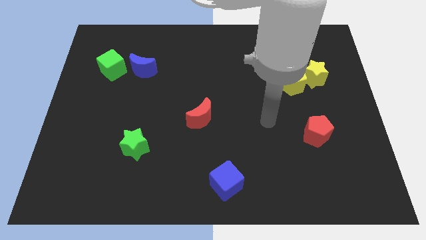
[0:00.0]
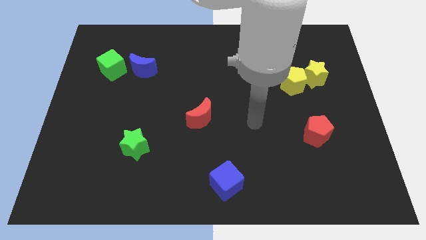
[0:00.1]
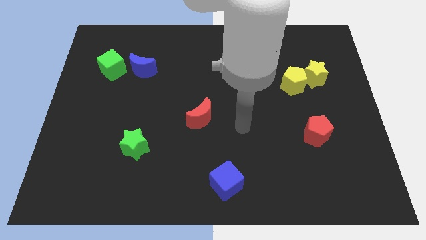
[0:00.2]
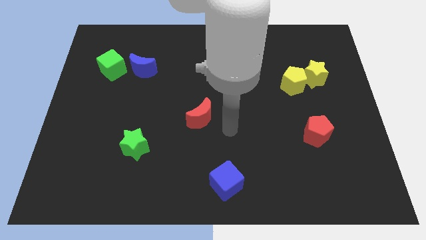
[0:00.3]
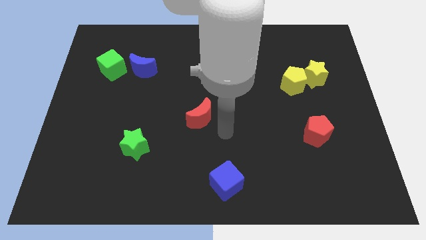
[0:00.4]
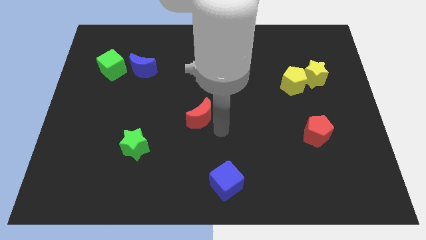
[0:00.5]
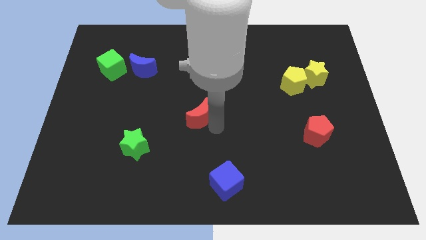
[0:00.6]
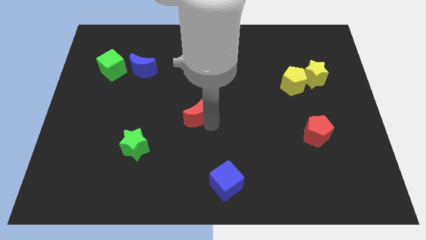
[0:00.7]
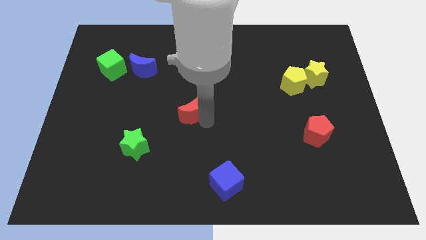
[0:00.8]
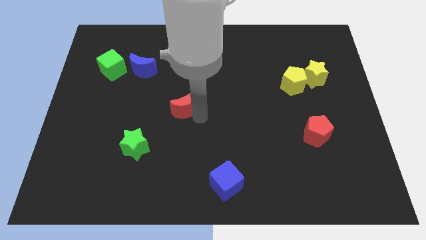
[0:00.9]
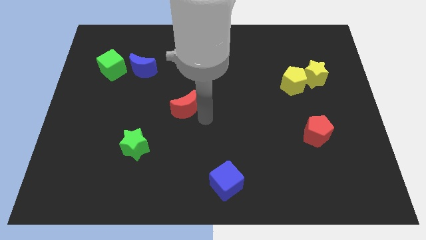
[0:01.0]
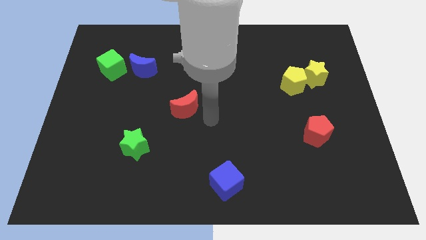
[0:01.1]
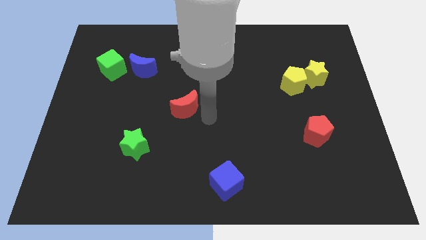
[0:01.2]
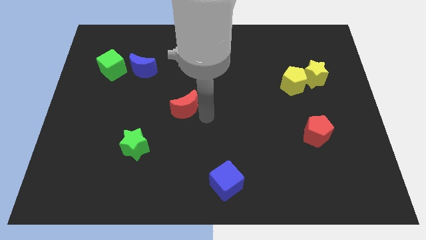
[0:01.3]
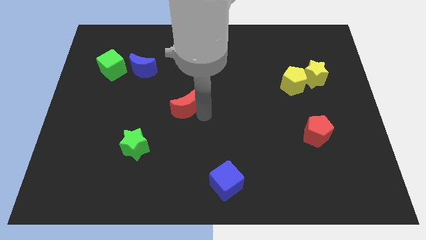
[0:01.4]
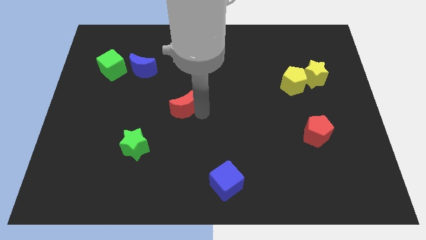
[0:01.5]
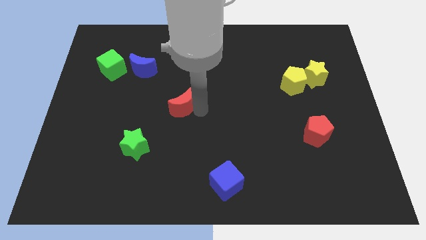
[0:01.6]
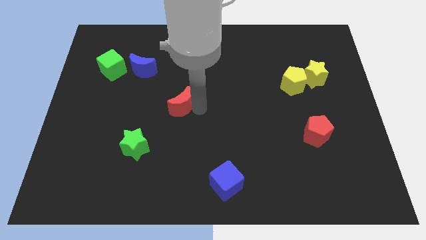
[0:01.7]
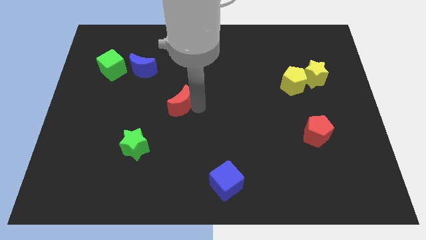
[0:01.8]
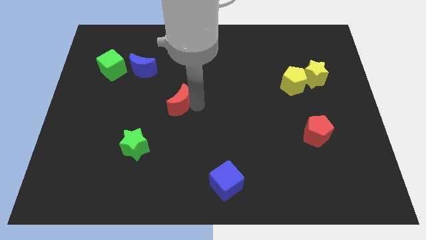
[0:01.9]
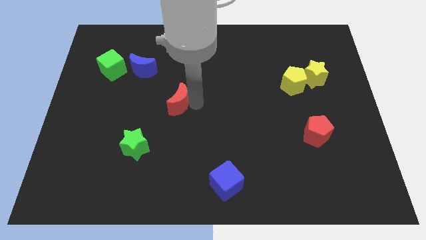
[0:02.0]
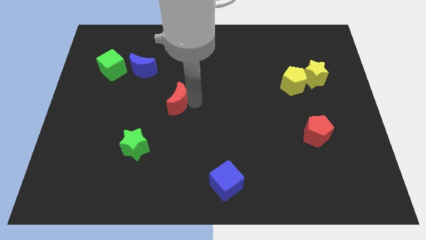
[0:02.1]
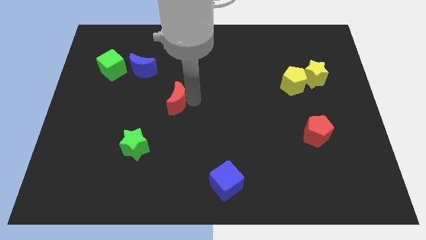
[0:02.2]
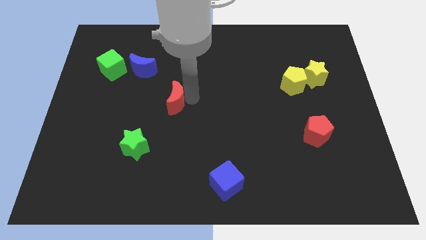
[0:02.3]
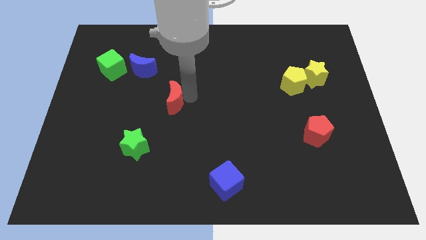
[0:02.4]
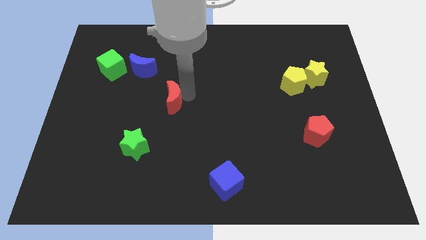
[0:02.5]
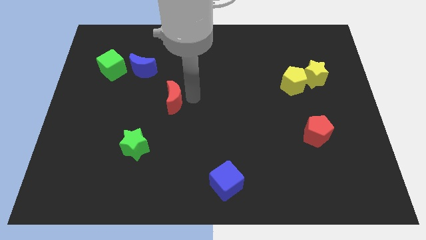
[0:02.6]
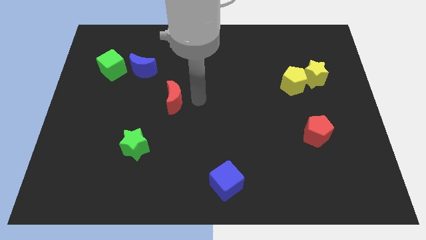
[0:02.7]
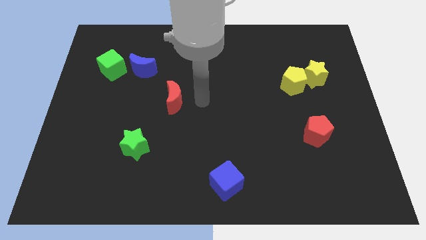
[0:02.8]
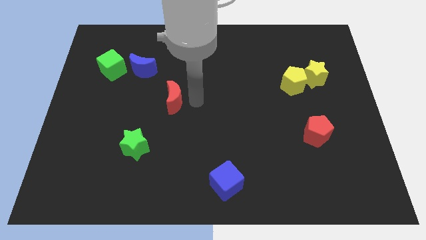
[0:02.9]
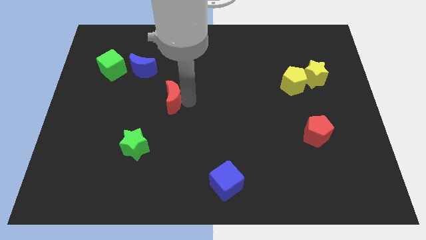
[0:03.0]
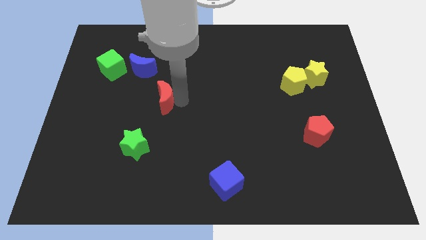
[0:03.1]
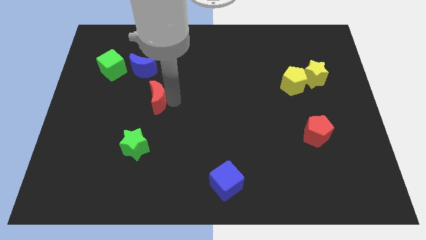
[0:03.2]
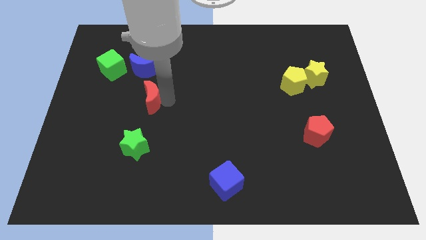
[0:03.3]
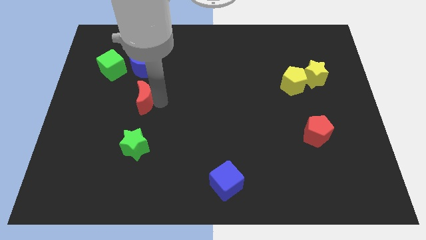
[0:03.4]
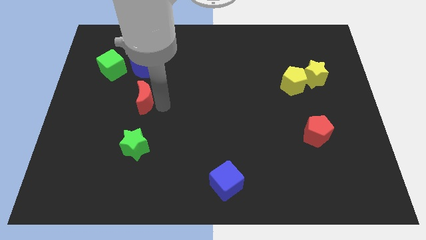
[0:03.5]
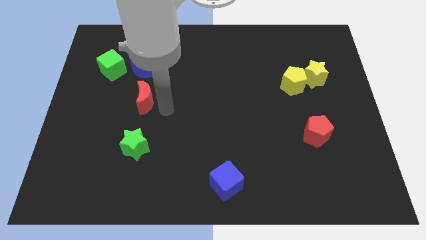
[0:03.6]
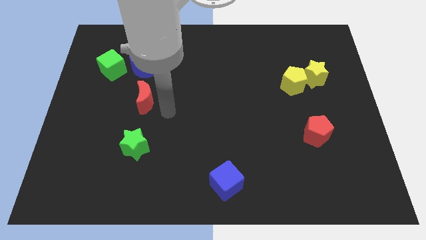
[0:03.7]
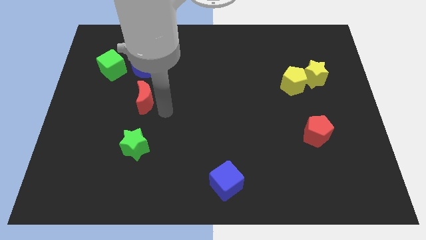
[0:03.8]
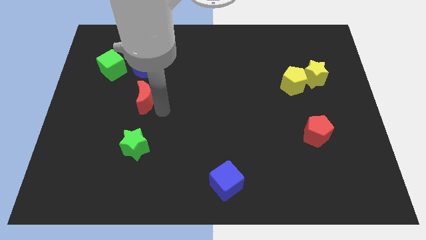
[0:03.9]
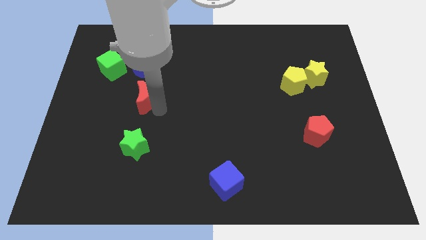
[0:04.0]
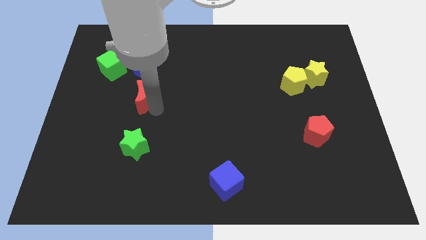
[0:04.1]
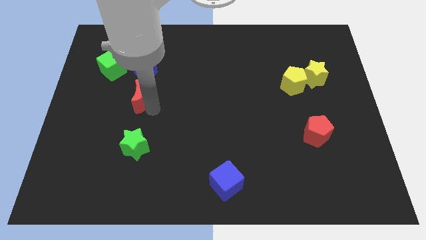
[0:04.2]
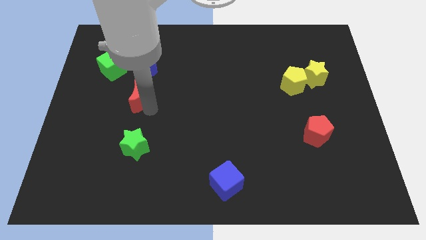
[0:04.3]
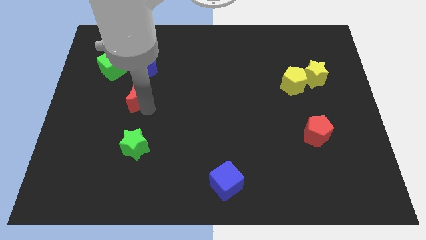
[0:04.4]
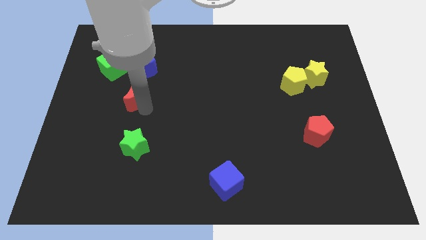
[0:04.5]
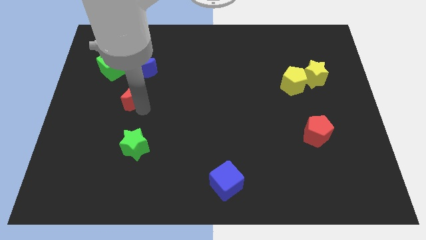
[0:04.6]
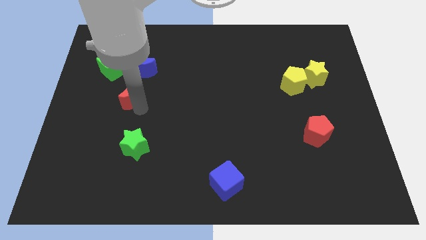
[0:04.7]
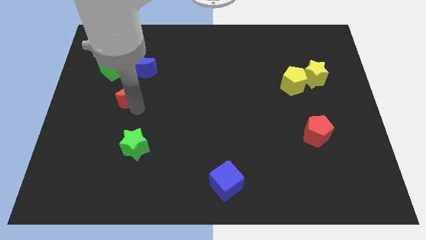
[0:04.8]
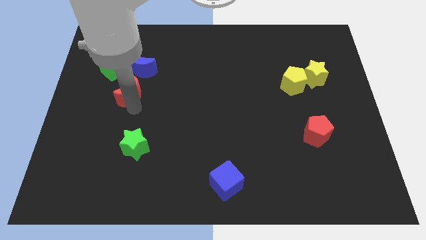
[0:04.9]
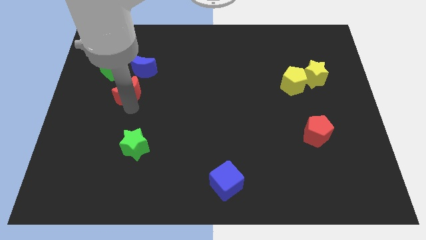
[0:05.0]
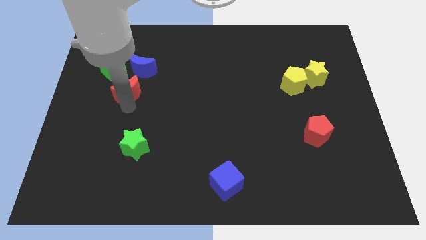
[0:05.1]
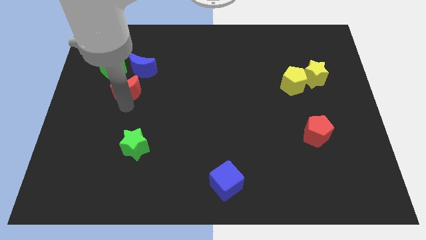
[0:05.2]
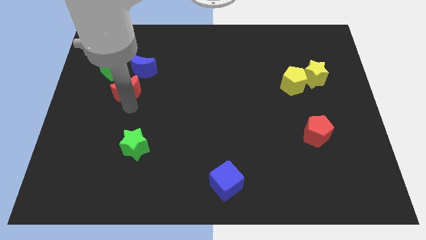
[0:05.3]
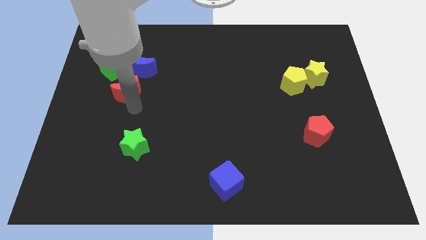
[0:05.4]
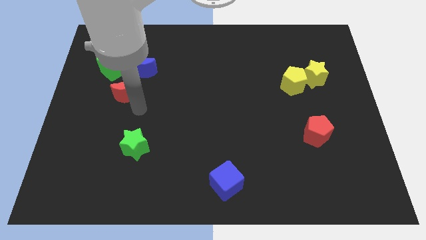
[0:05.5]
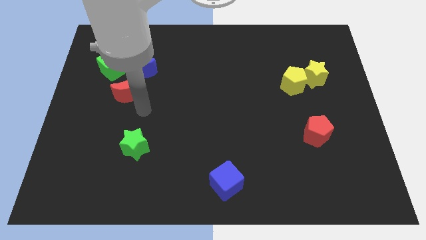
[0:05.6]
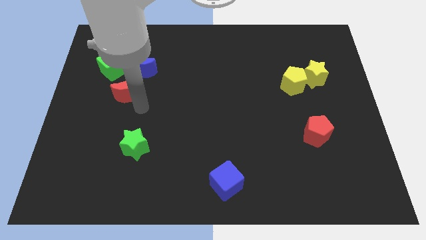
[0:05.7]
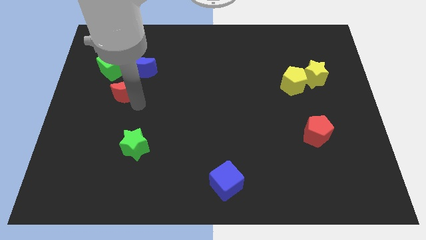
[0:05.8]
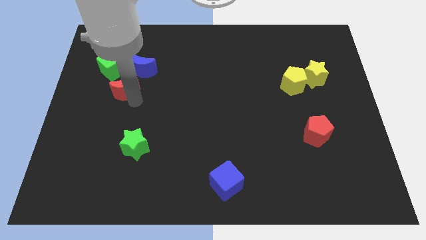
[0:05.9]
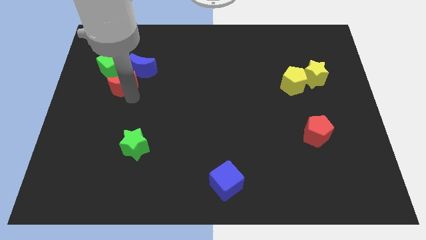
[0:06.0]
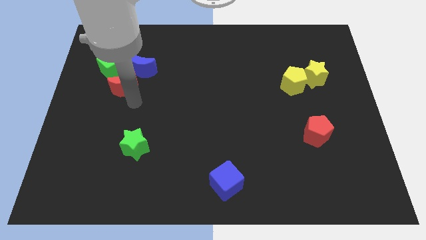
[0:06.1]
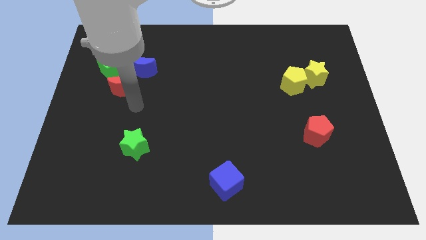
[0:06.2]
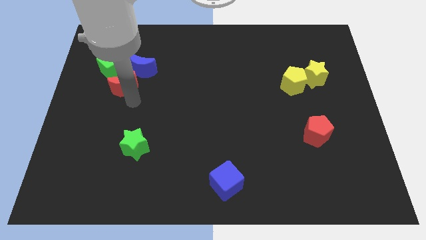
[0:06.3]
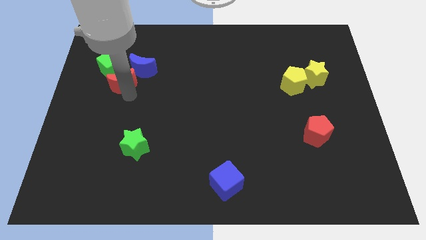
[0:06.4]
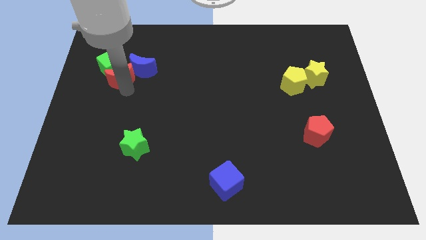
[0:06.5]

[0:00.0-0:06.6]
slide the red moon close to the green cube
